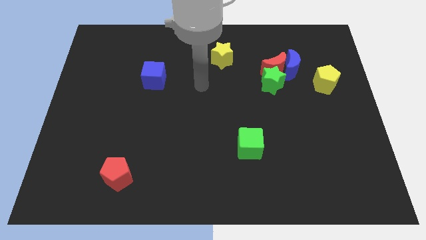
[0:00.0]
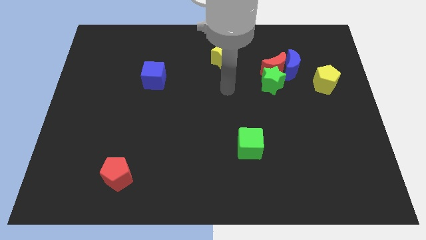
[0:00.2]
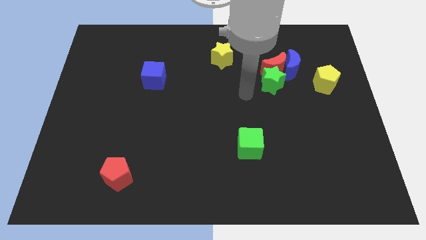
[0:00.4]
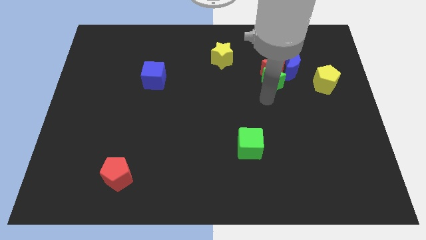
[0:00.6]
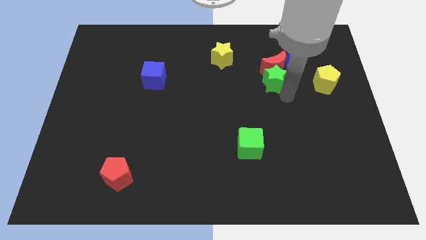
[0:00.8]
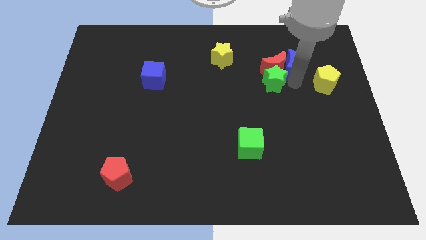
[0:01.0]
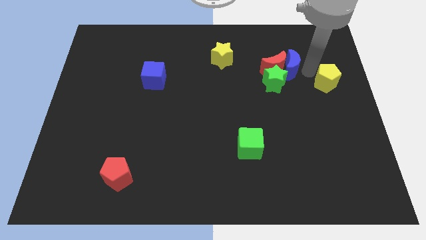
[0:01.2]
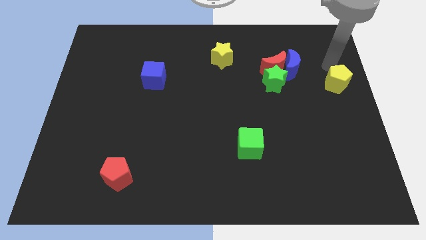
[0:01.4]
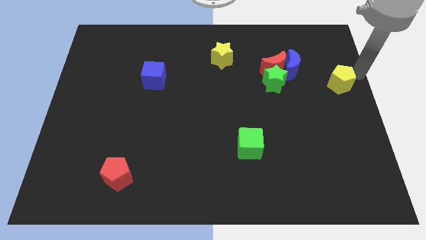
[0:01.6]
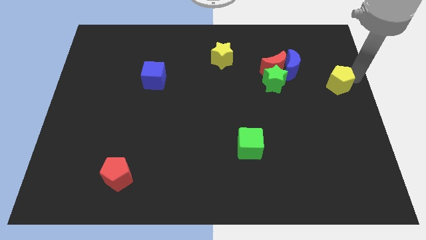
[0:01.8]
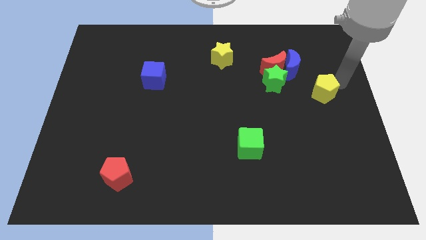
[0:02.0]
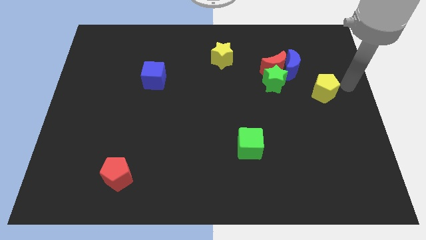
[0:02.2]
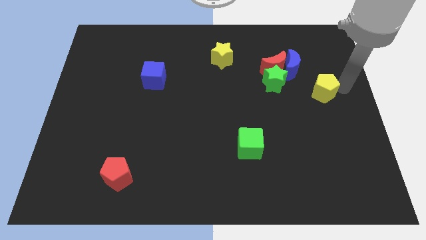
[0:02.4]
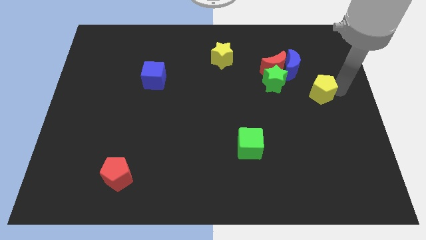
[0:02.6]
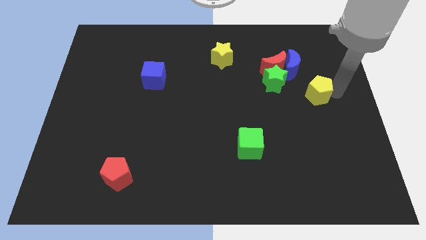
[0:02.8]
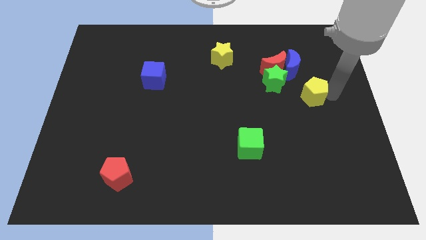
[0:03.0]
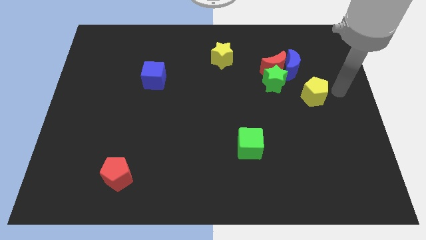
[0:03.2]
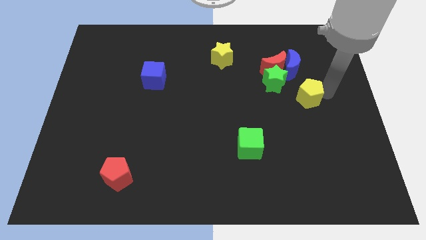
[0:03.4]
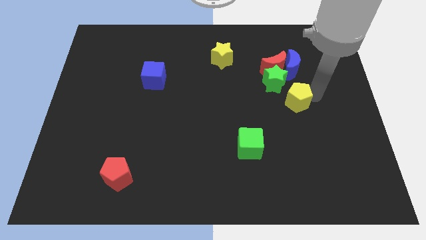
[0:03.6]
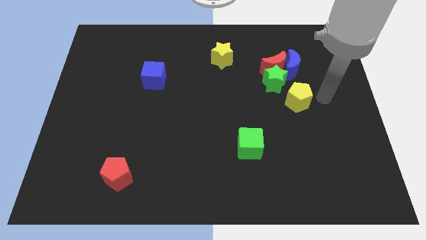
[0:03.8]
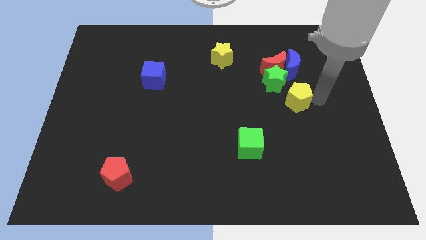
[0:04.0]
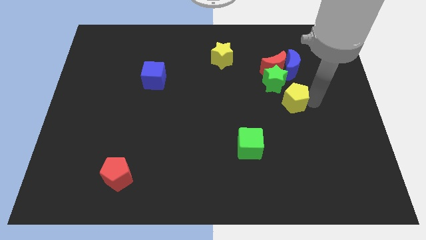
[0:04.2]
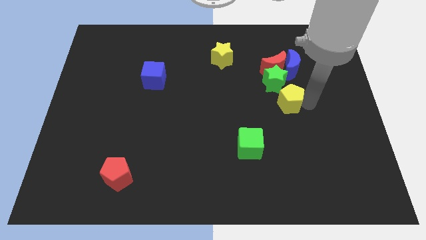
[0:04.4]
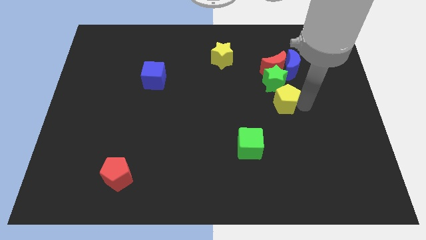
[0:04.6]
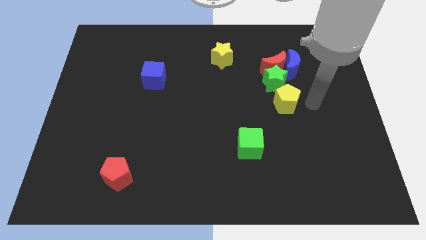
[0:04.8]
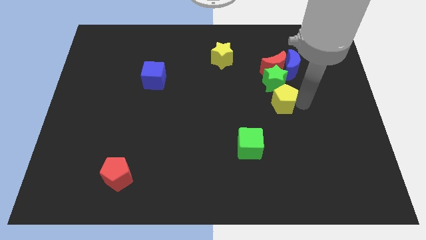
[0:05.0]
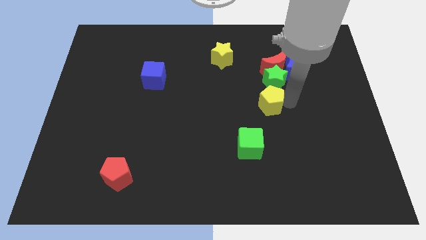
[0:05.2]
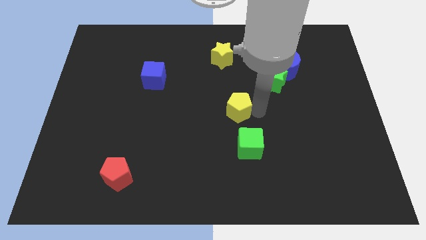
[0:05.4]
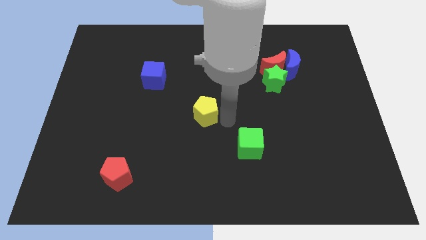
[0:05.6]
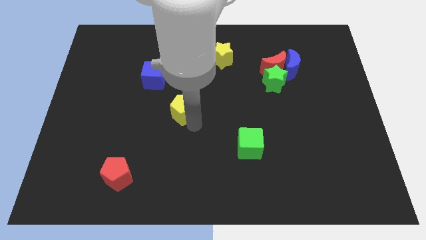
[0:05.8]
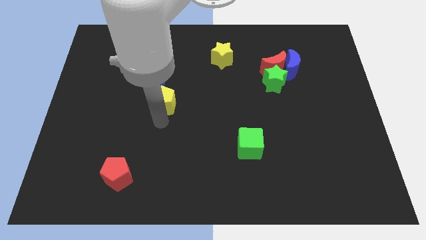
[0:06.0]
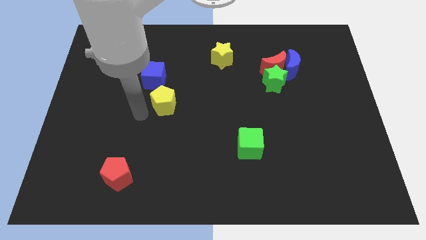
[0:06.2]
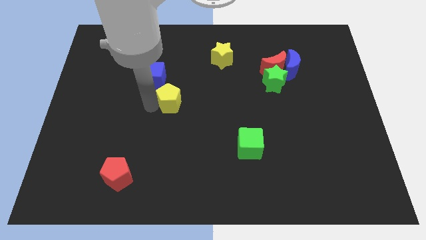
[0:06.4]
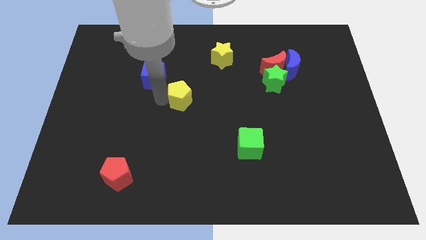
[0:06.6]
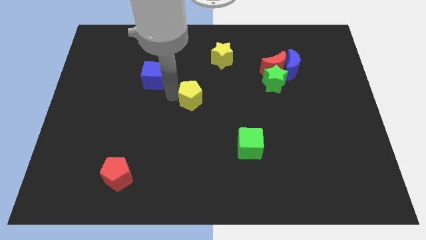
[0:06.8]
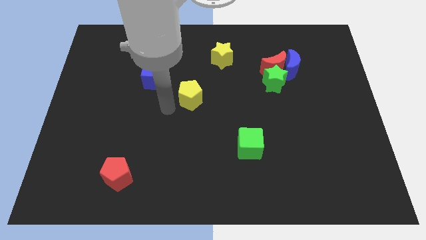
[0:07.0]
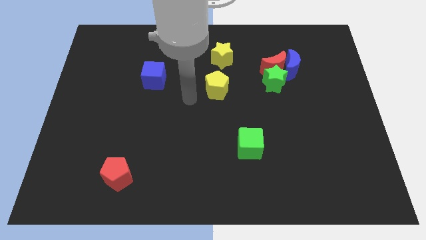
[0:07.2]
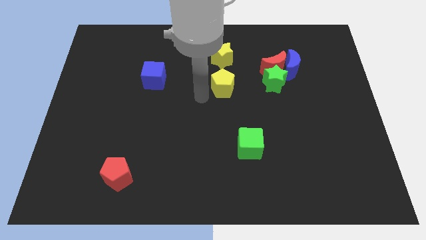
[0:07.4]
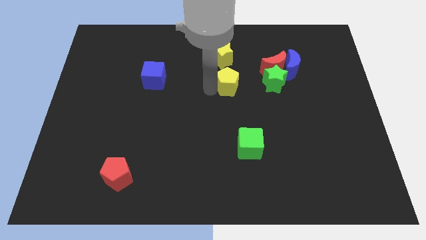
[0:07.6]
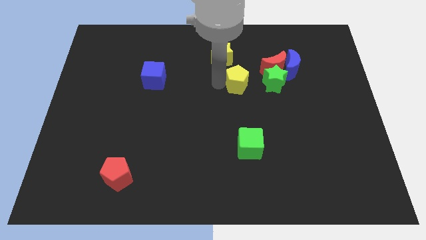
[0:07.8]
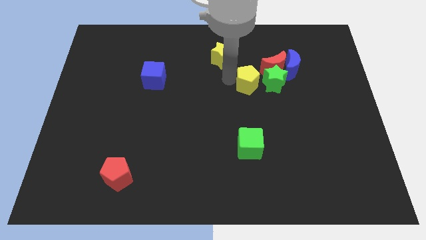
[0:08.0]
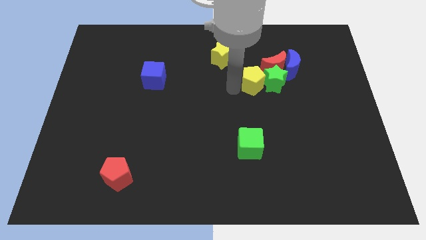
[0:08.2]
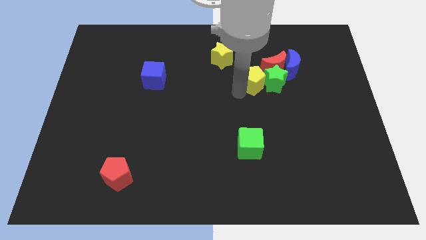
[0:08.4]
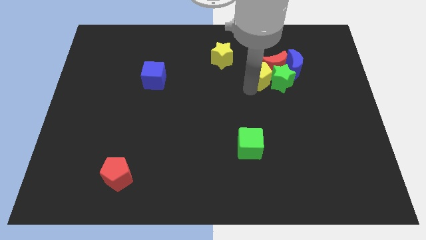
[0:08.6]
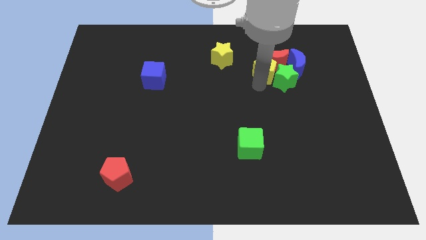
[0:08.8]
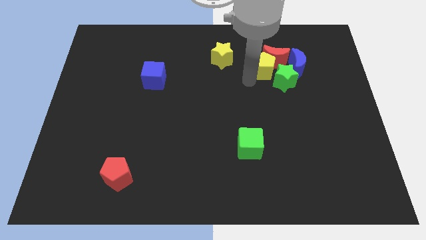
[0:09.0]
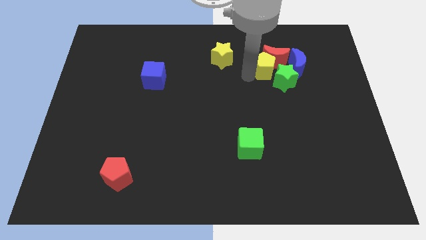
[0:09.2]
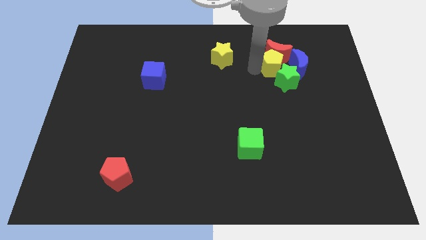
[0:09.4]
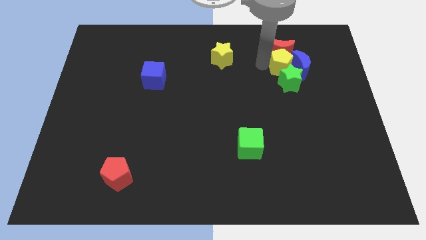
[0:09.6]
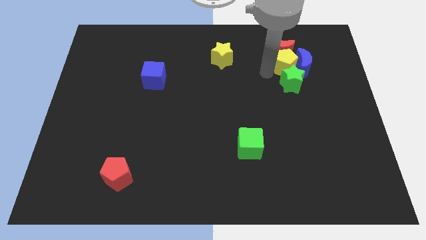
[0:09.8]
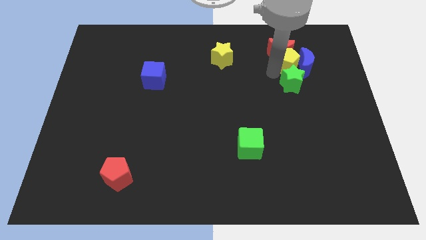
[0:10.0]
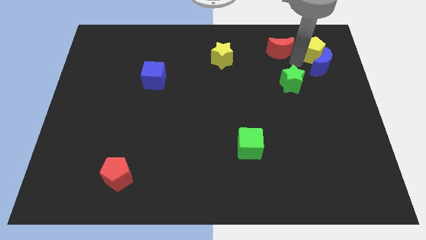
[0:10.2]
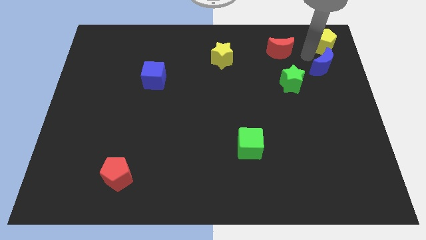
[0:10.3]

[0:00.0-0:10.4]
move the yellow pentagon to the top right corner
